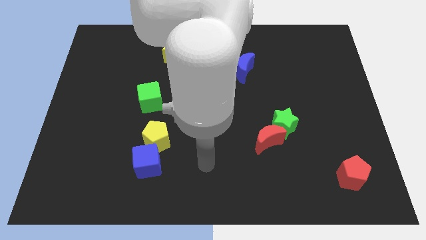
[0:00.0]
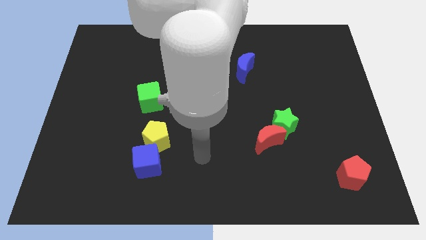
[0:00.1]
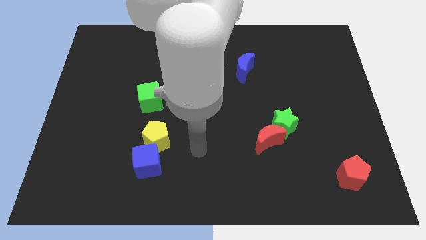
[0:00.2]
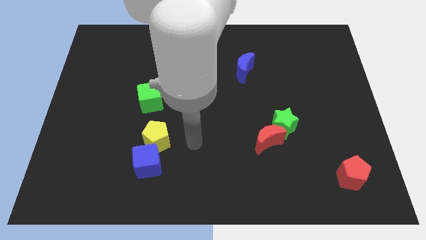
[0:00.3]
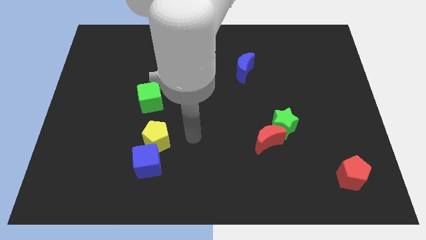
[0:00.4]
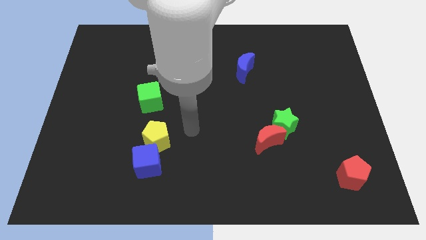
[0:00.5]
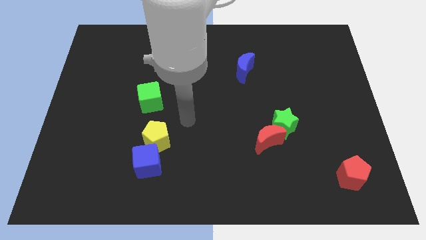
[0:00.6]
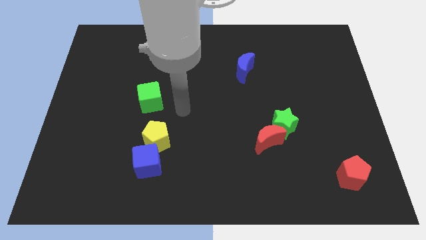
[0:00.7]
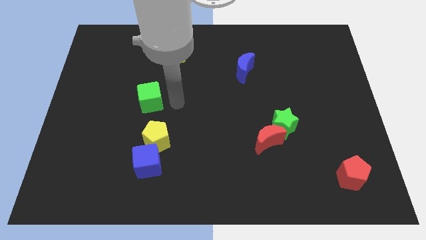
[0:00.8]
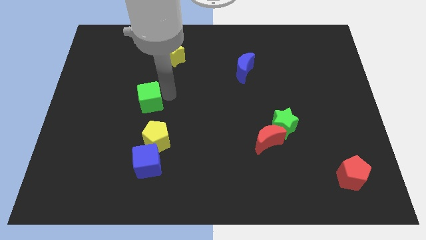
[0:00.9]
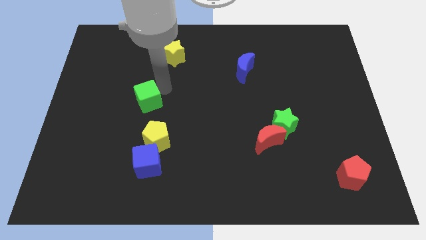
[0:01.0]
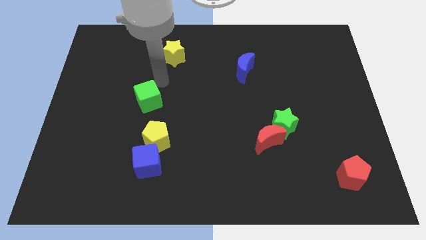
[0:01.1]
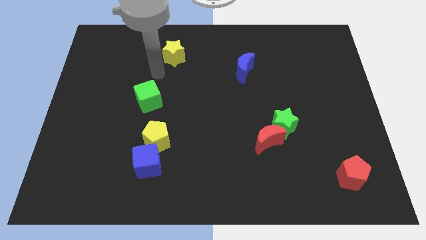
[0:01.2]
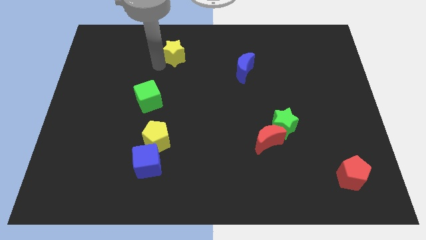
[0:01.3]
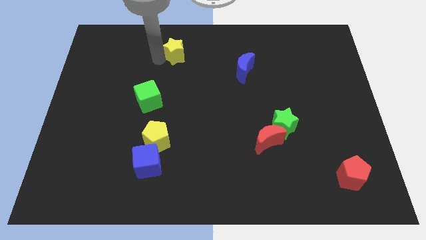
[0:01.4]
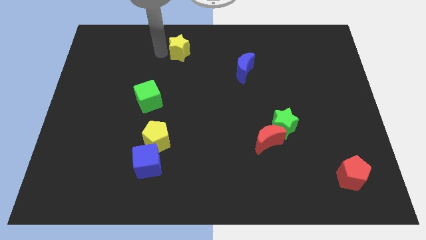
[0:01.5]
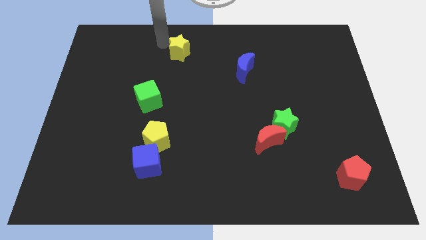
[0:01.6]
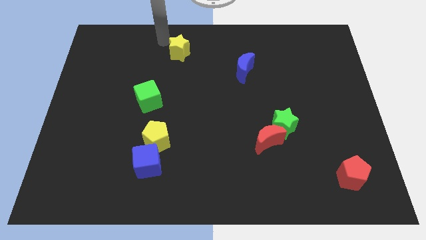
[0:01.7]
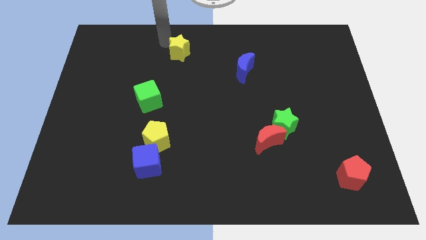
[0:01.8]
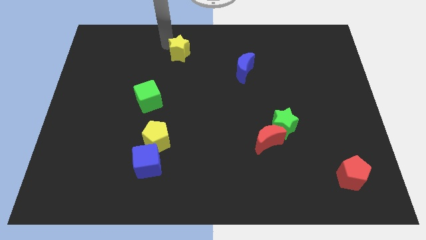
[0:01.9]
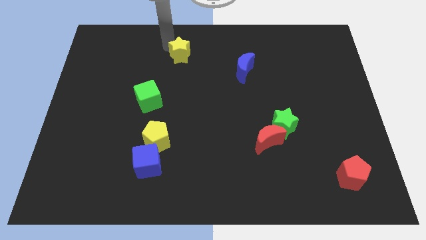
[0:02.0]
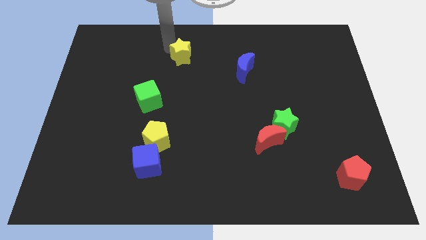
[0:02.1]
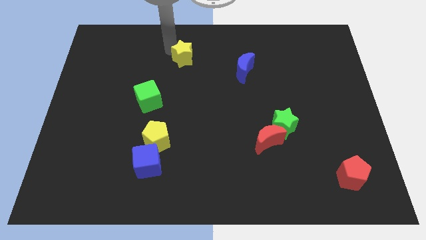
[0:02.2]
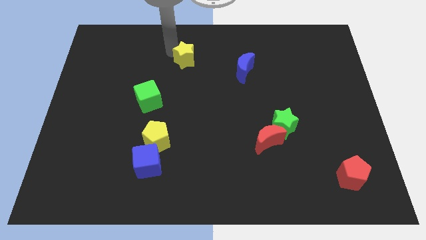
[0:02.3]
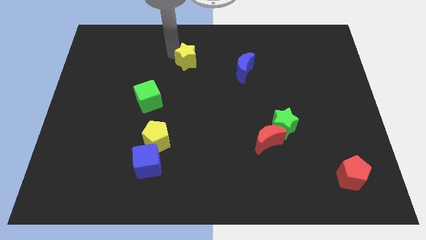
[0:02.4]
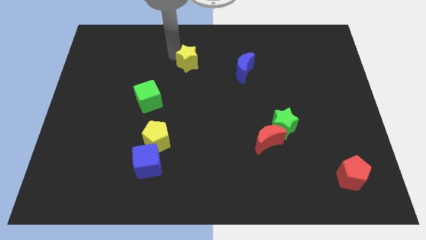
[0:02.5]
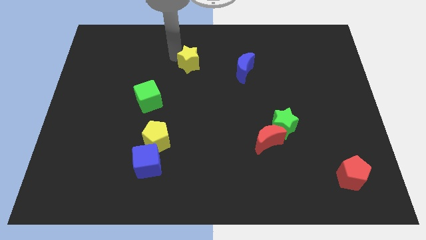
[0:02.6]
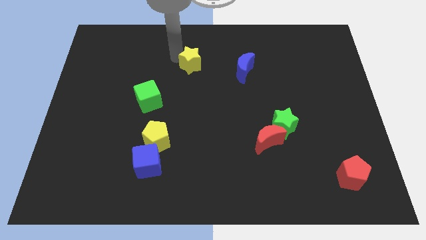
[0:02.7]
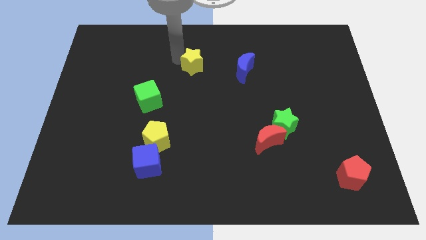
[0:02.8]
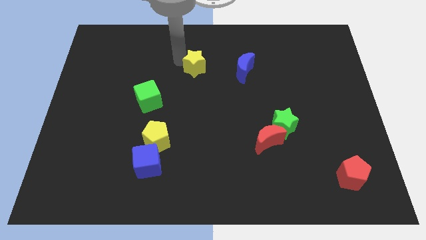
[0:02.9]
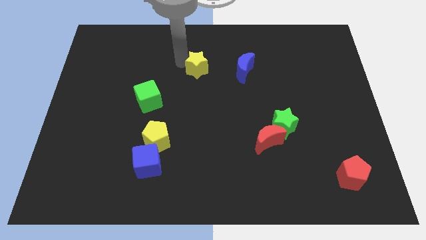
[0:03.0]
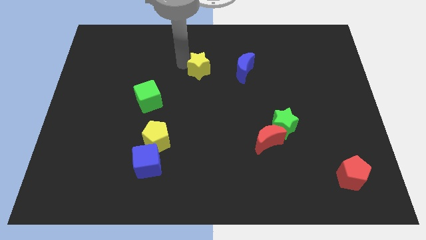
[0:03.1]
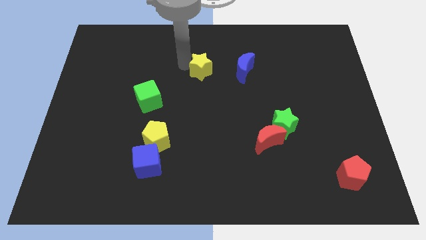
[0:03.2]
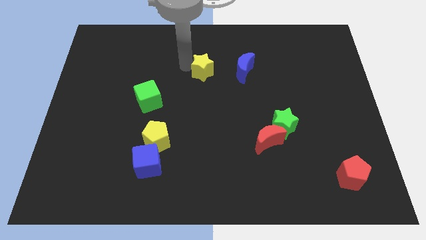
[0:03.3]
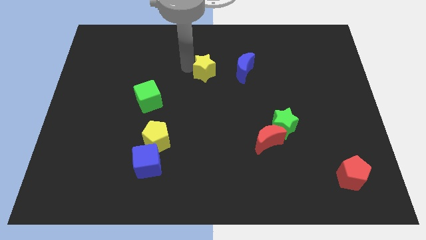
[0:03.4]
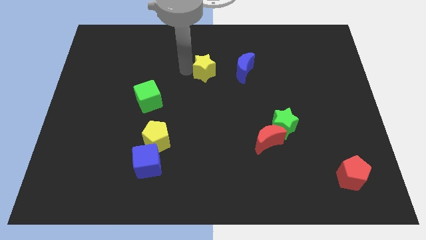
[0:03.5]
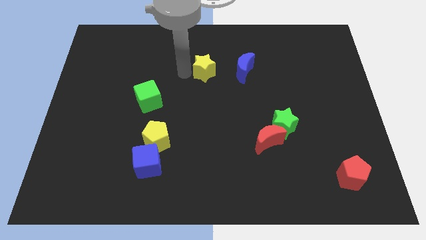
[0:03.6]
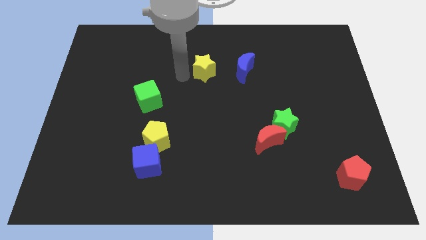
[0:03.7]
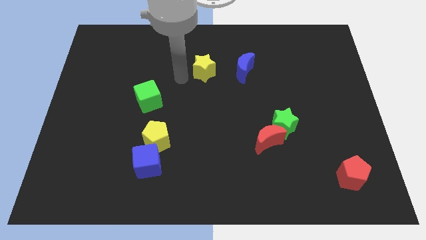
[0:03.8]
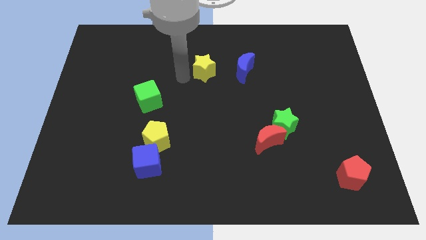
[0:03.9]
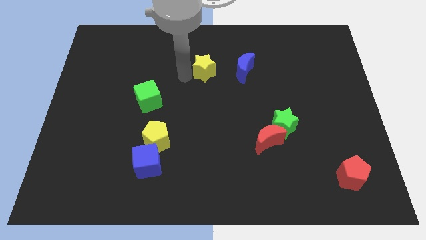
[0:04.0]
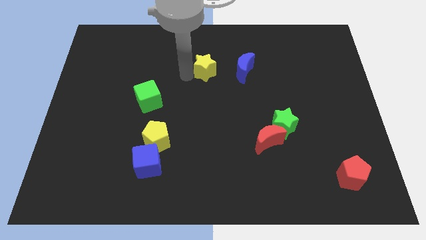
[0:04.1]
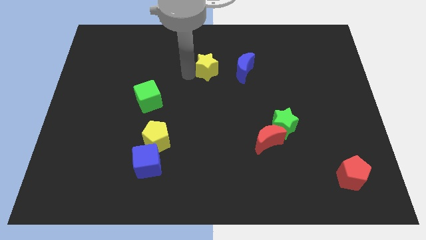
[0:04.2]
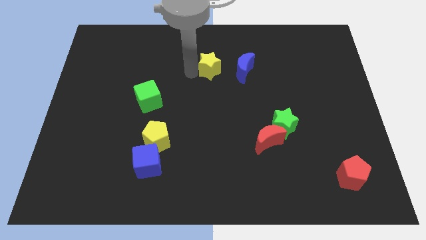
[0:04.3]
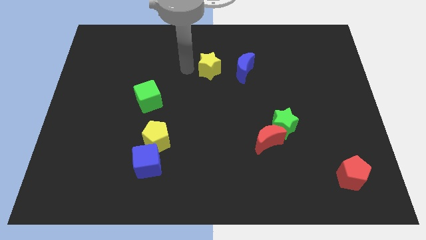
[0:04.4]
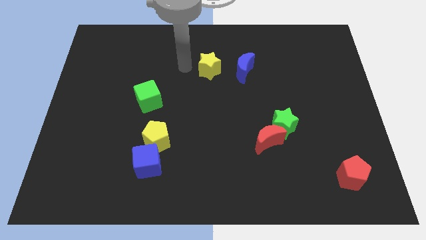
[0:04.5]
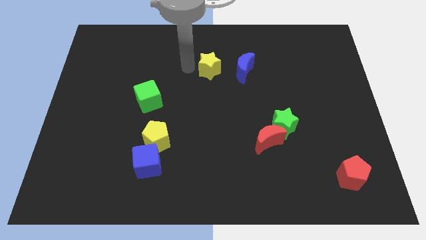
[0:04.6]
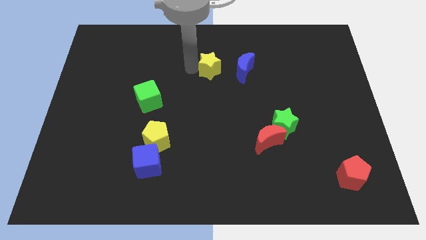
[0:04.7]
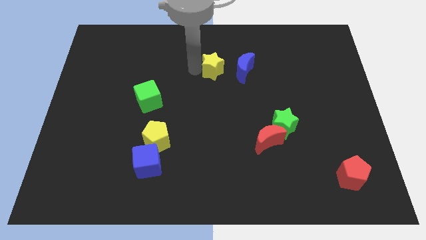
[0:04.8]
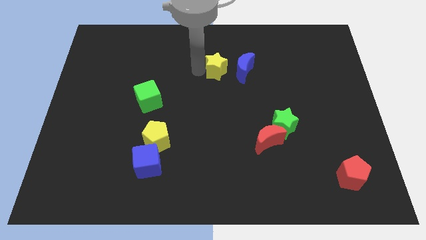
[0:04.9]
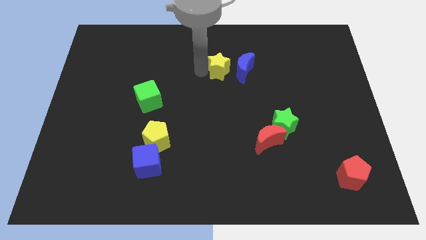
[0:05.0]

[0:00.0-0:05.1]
push the yellow star towards the blue moon

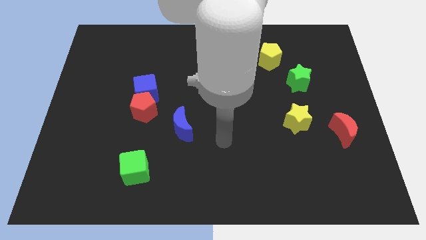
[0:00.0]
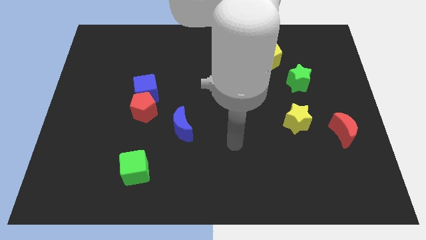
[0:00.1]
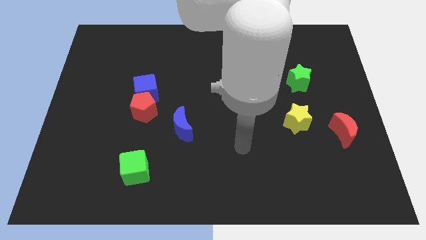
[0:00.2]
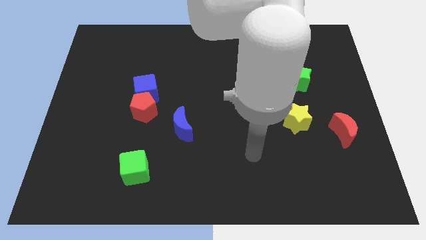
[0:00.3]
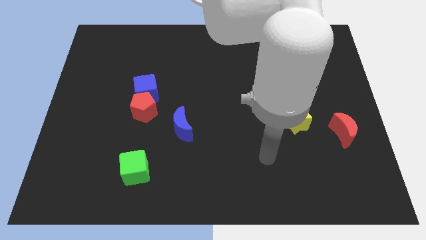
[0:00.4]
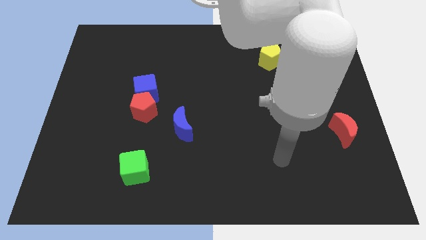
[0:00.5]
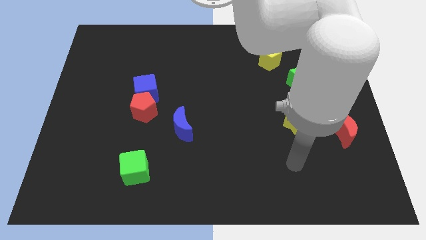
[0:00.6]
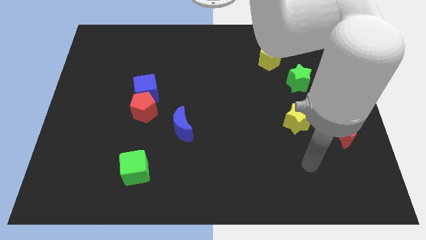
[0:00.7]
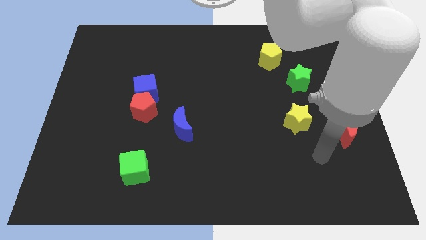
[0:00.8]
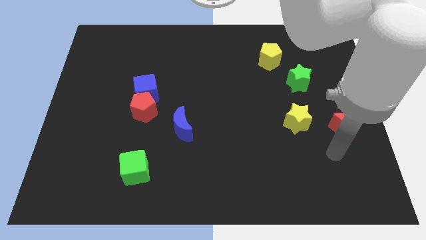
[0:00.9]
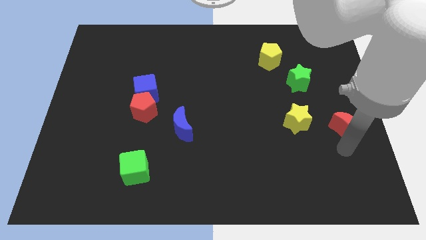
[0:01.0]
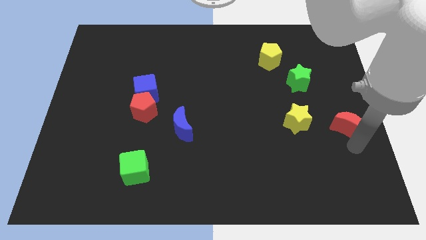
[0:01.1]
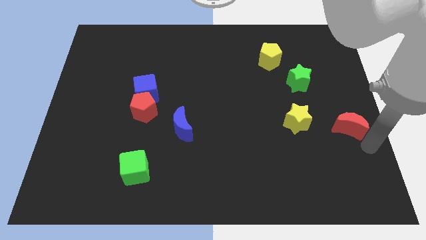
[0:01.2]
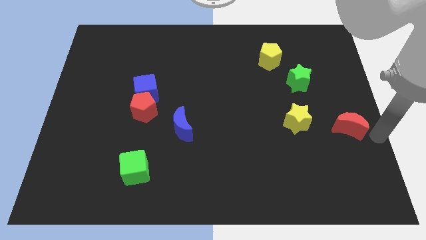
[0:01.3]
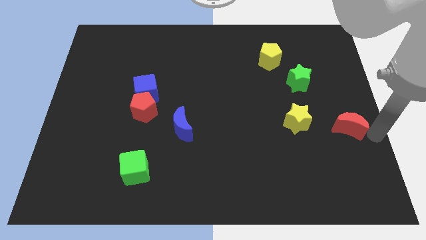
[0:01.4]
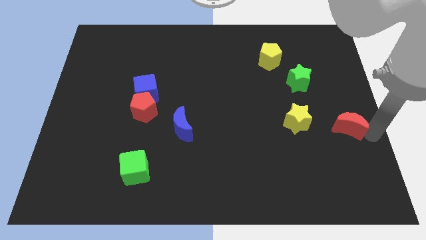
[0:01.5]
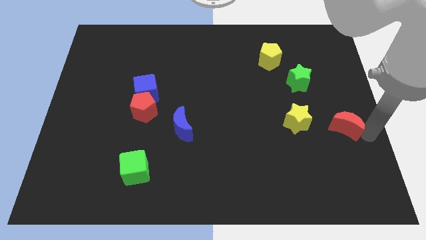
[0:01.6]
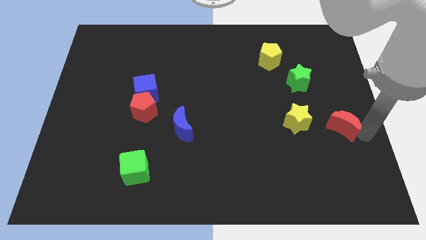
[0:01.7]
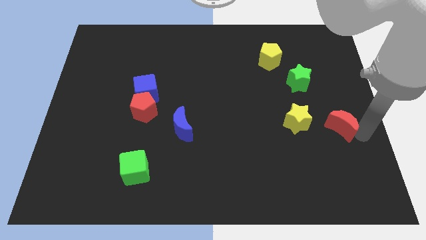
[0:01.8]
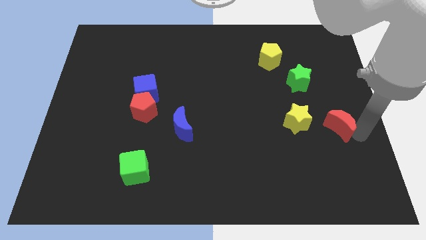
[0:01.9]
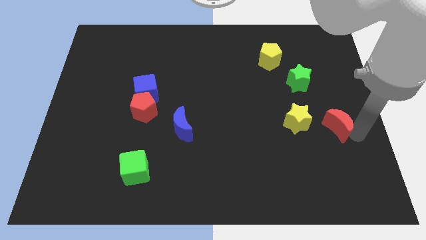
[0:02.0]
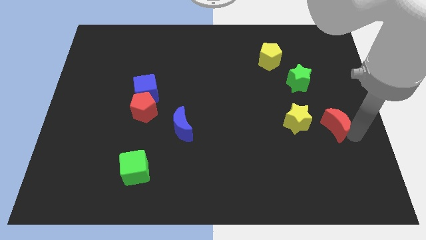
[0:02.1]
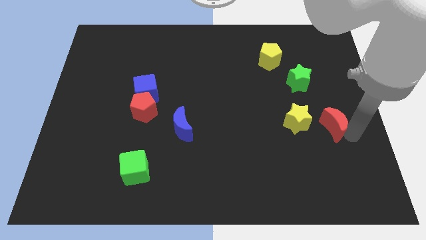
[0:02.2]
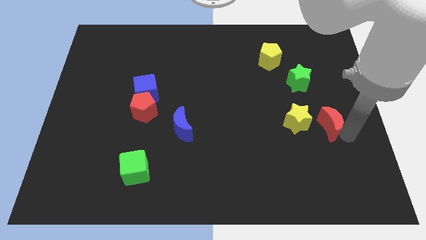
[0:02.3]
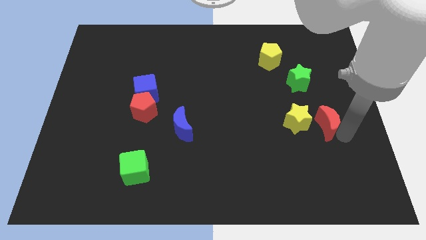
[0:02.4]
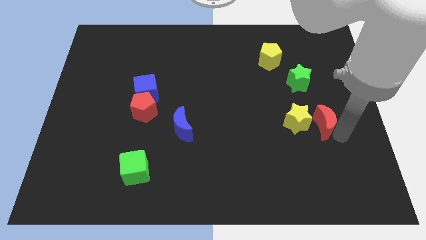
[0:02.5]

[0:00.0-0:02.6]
put the red moon close to the yellow star

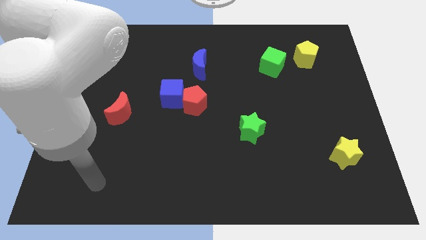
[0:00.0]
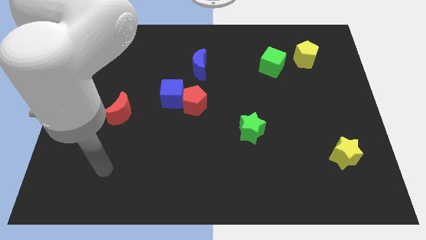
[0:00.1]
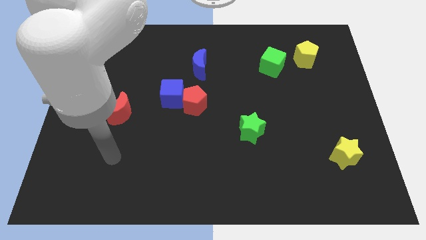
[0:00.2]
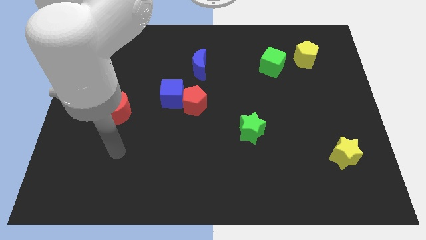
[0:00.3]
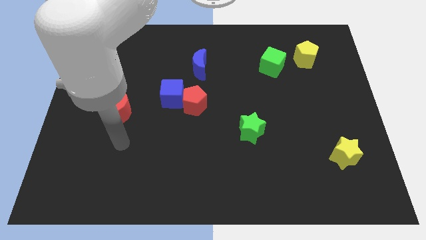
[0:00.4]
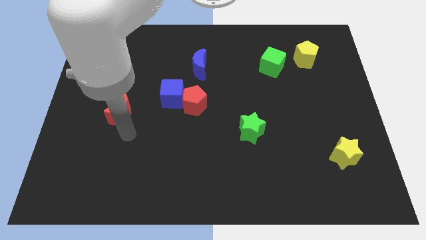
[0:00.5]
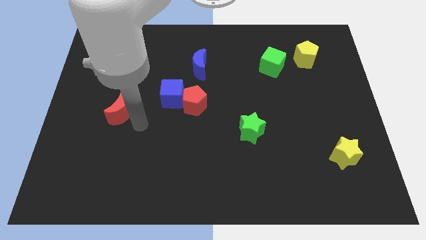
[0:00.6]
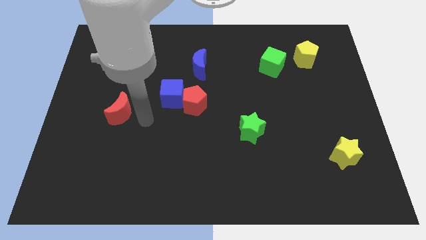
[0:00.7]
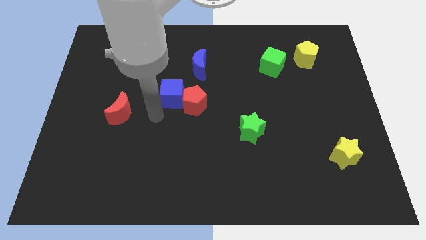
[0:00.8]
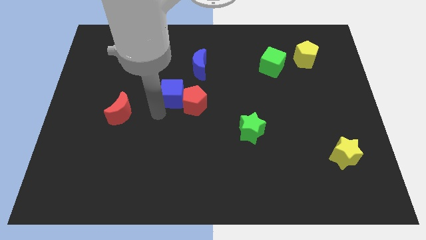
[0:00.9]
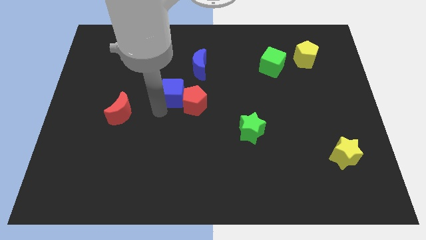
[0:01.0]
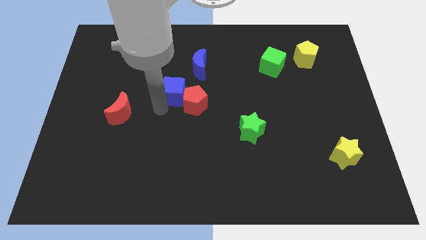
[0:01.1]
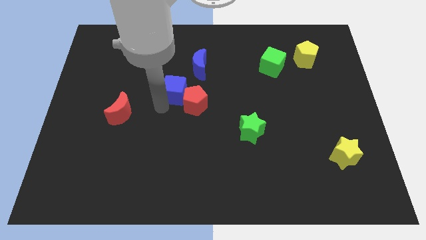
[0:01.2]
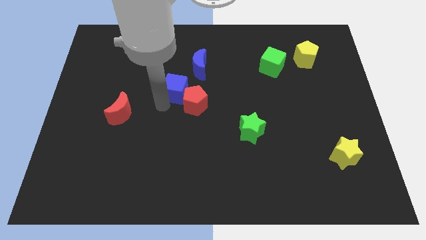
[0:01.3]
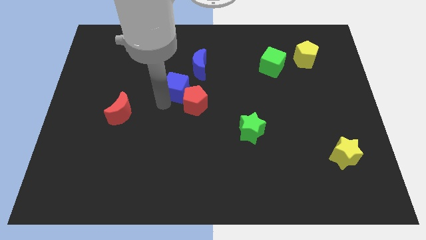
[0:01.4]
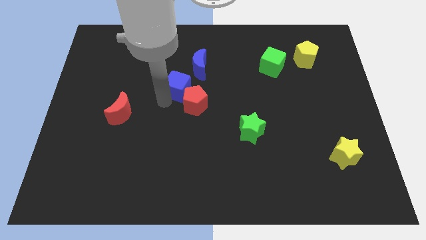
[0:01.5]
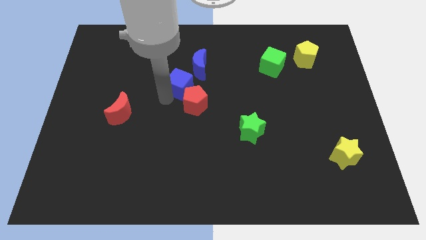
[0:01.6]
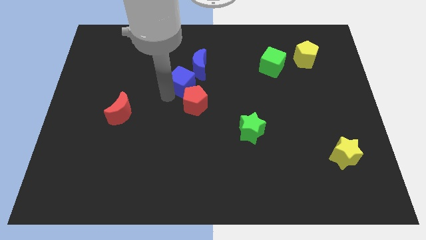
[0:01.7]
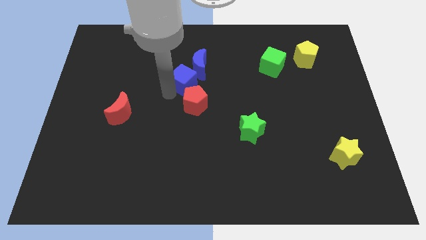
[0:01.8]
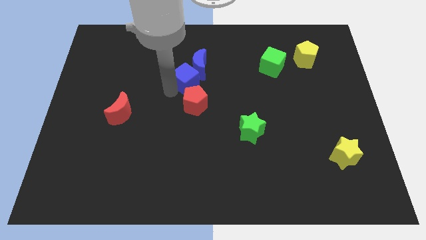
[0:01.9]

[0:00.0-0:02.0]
put the blue cube to the blue moon
